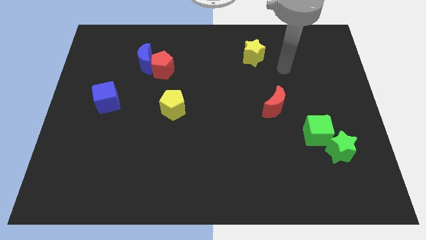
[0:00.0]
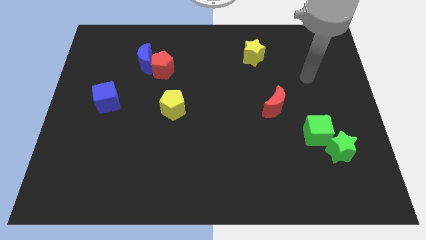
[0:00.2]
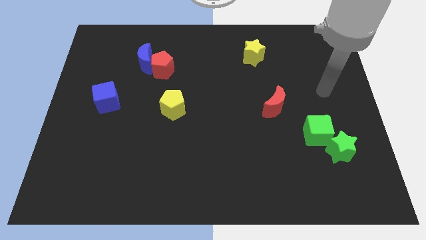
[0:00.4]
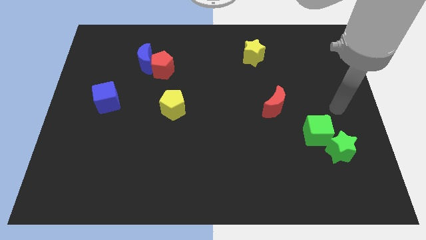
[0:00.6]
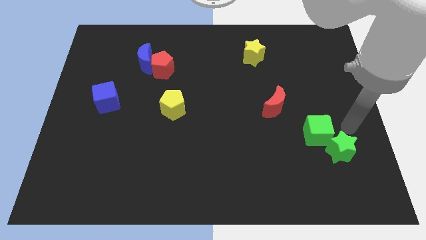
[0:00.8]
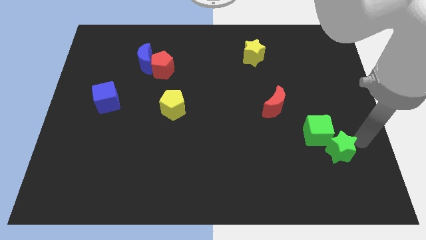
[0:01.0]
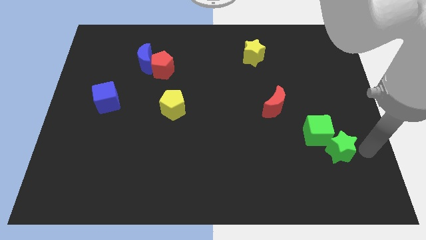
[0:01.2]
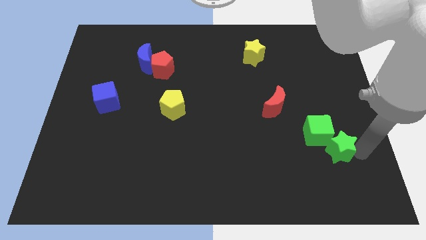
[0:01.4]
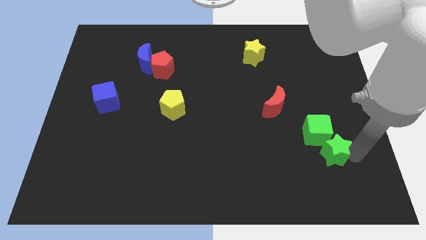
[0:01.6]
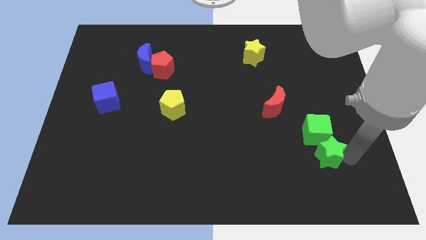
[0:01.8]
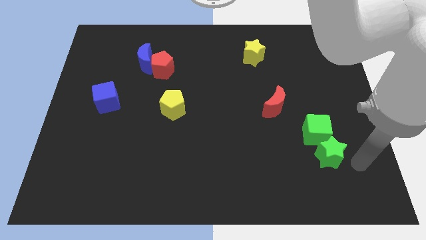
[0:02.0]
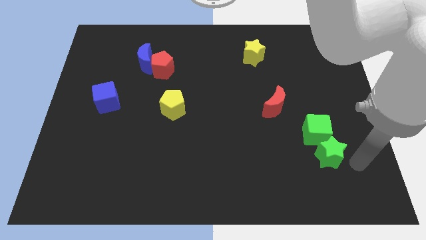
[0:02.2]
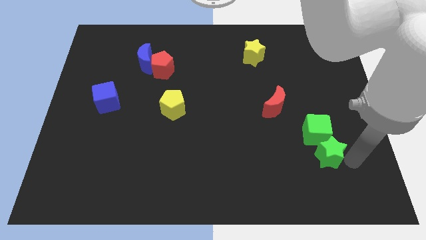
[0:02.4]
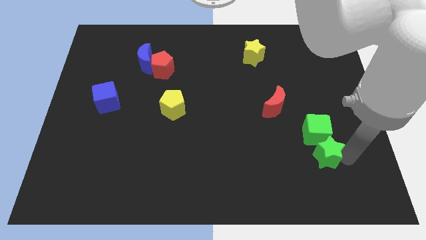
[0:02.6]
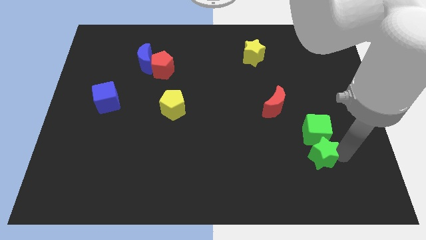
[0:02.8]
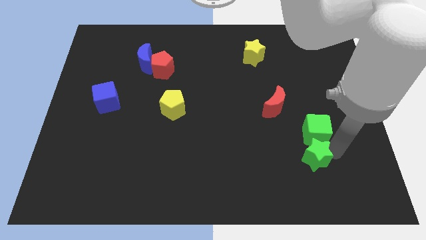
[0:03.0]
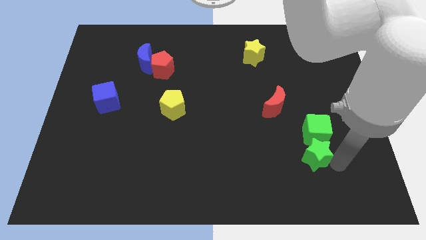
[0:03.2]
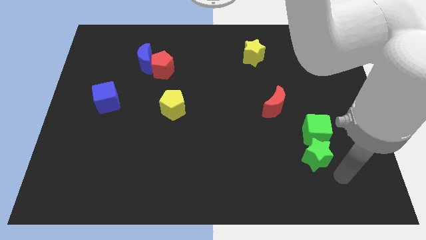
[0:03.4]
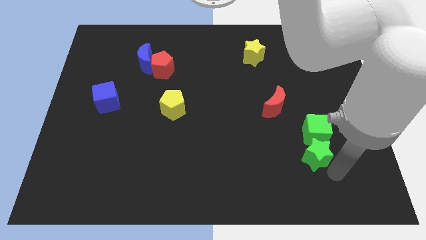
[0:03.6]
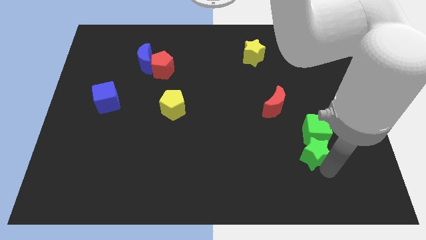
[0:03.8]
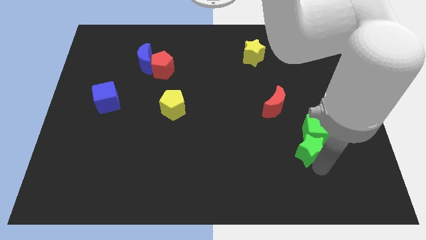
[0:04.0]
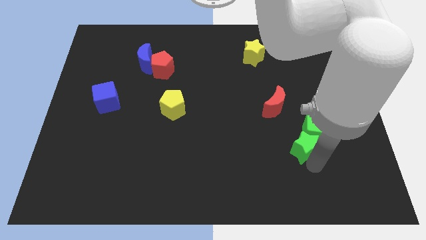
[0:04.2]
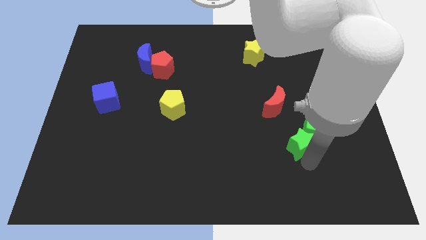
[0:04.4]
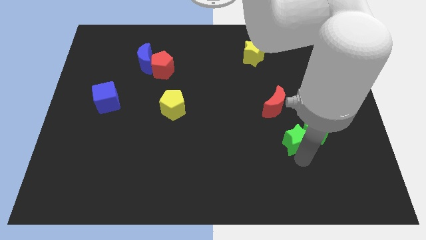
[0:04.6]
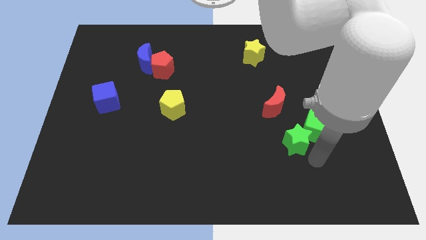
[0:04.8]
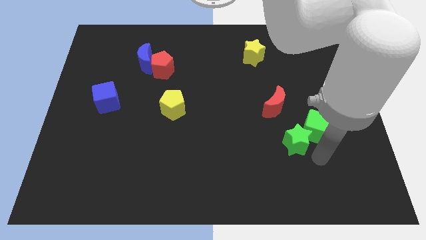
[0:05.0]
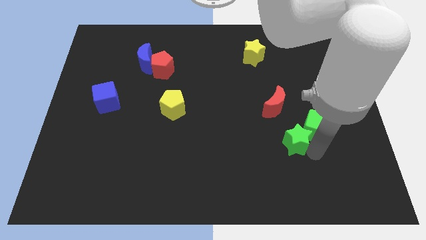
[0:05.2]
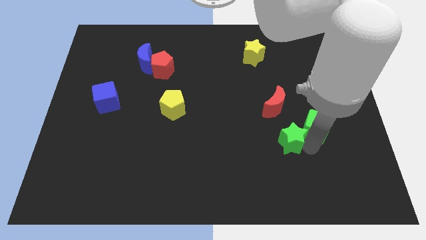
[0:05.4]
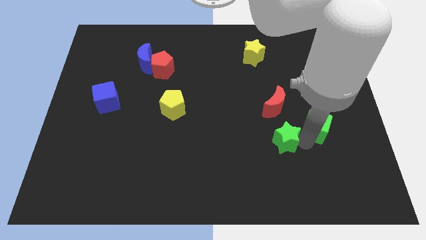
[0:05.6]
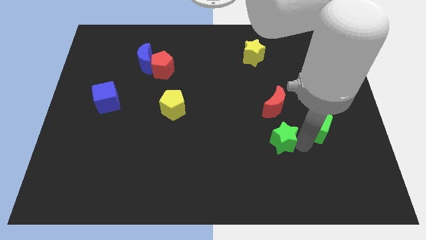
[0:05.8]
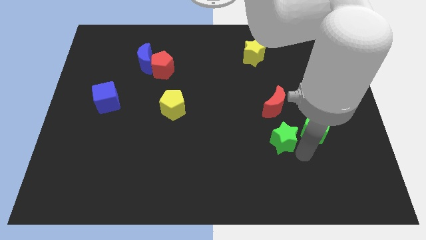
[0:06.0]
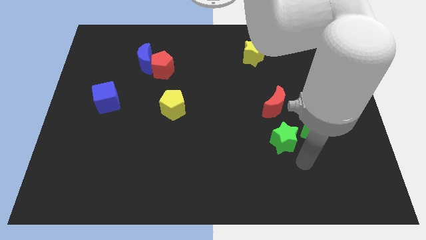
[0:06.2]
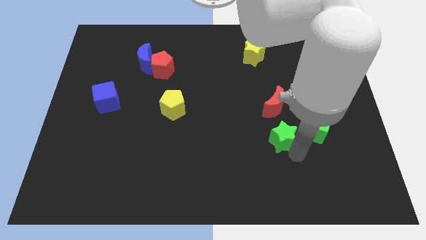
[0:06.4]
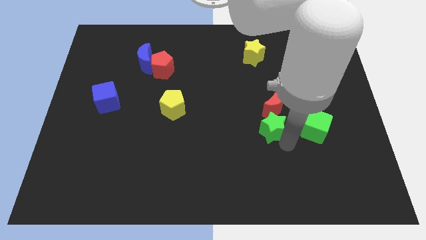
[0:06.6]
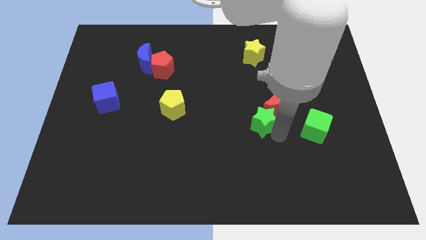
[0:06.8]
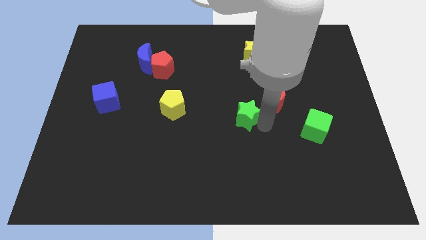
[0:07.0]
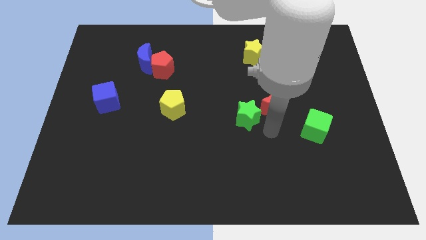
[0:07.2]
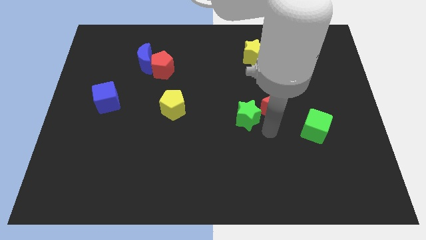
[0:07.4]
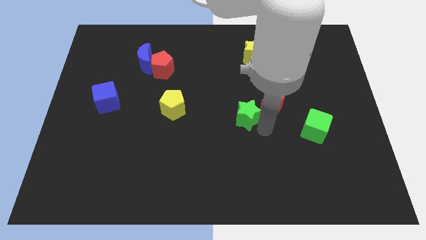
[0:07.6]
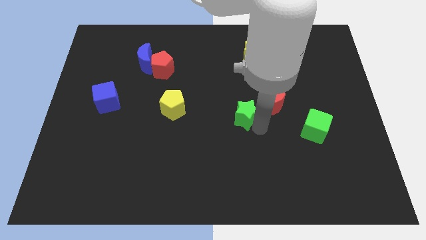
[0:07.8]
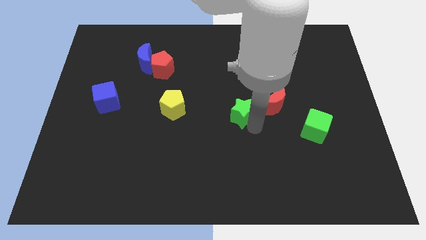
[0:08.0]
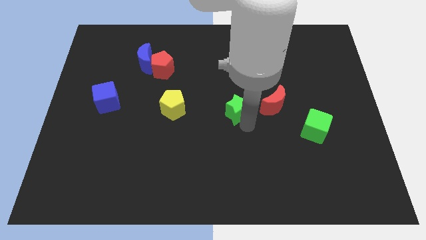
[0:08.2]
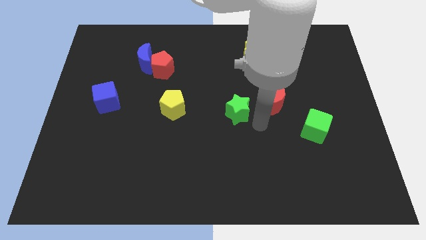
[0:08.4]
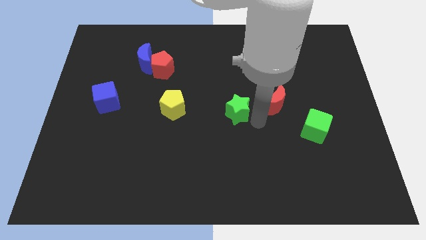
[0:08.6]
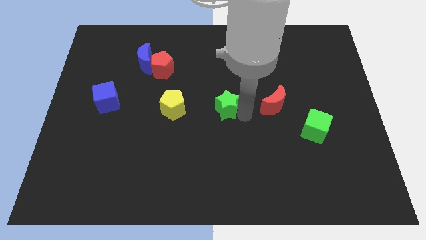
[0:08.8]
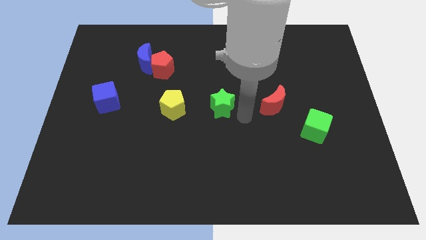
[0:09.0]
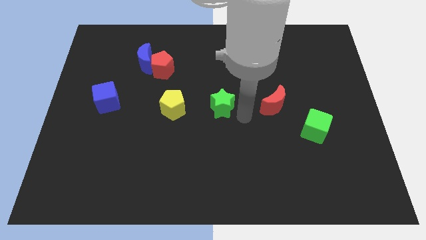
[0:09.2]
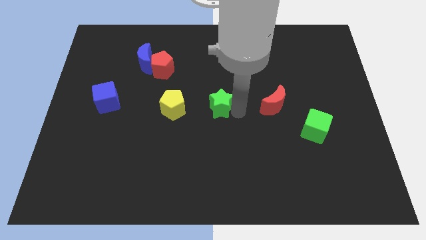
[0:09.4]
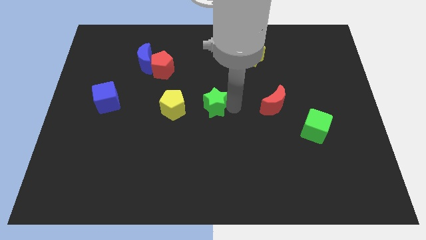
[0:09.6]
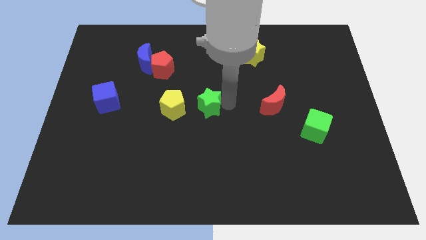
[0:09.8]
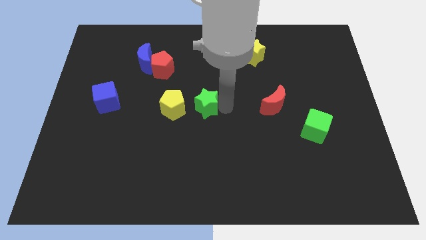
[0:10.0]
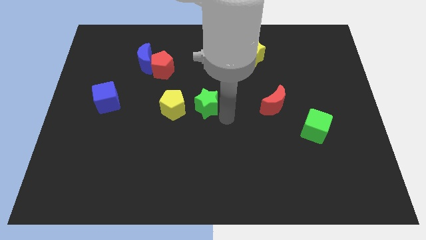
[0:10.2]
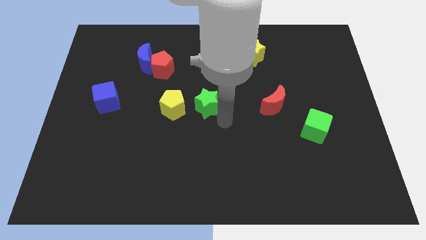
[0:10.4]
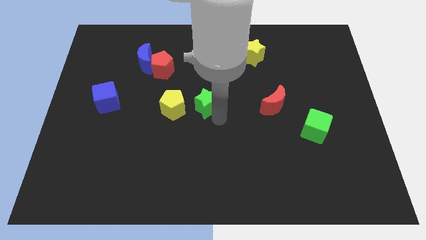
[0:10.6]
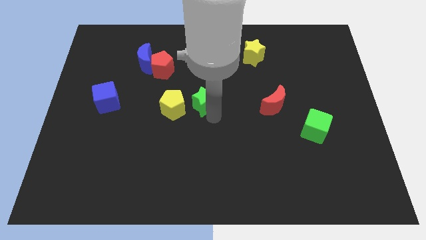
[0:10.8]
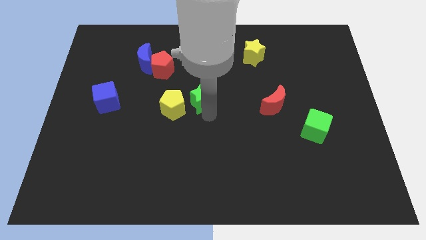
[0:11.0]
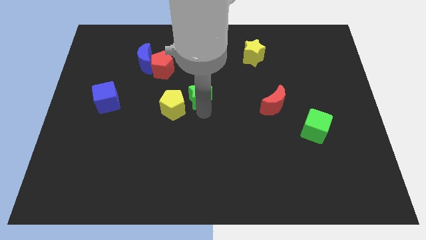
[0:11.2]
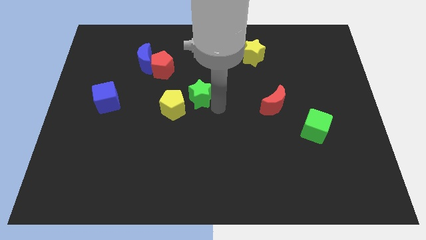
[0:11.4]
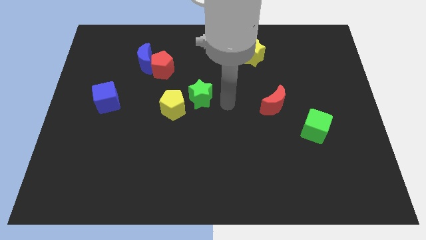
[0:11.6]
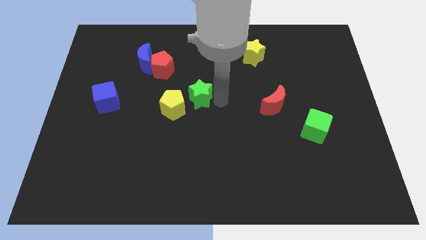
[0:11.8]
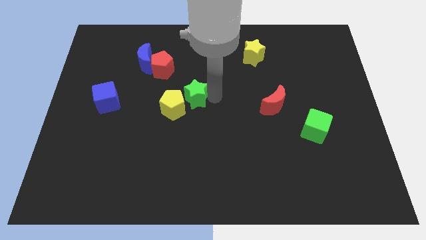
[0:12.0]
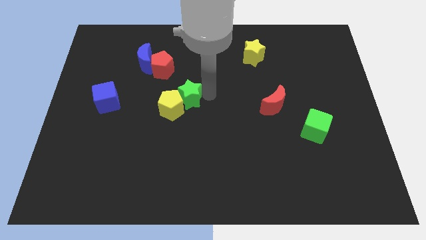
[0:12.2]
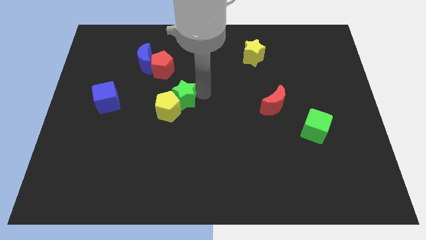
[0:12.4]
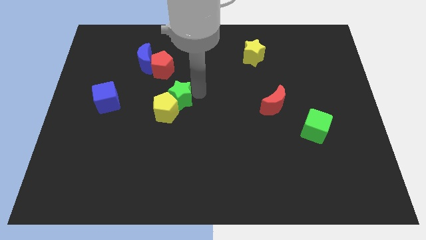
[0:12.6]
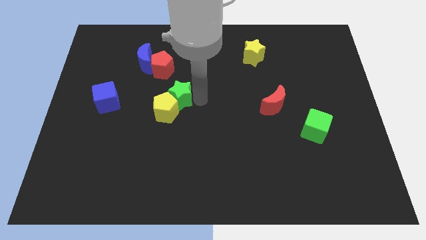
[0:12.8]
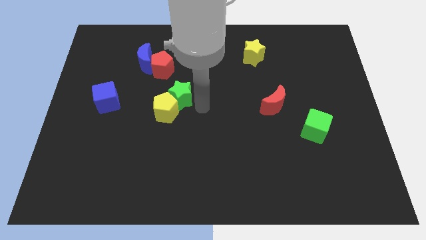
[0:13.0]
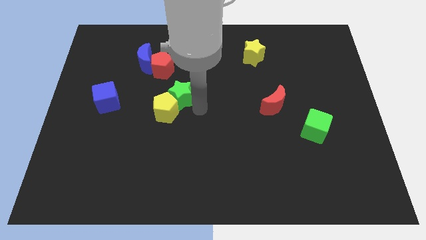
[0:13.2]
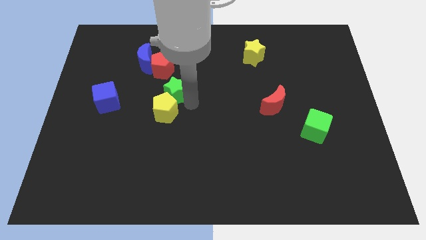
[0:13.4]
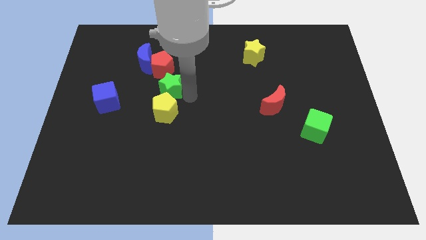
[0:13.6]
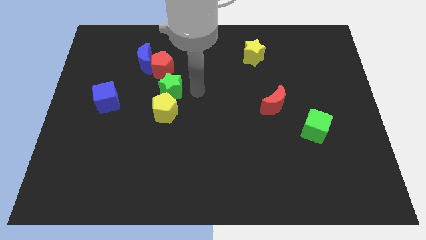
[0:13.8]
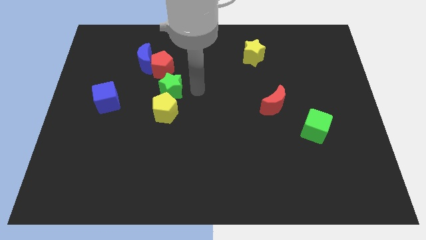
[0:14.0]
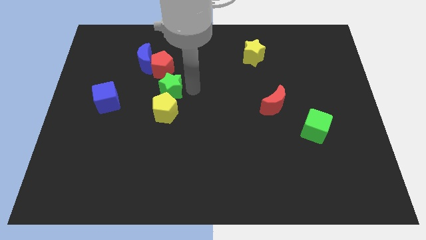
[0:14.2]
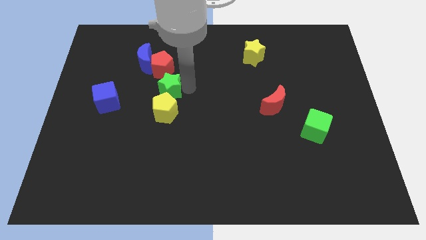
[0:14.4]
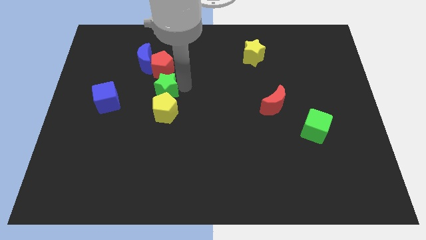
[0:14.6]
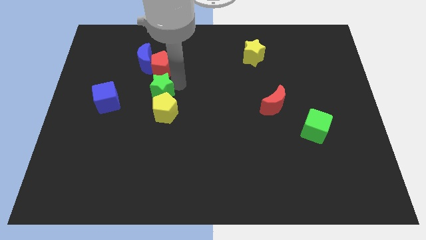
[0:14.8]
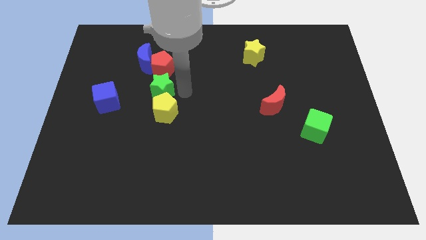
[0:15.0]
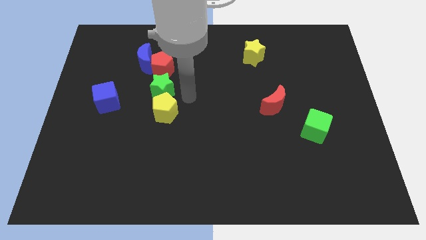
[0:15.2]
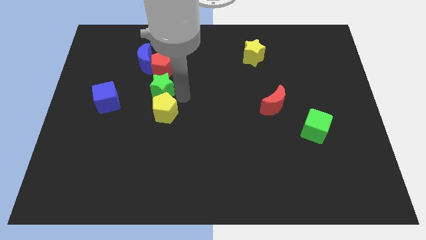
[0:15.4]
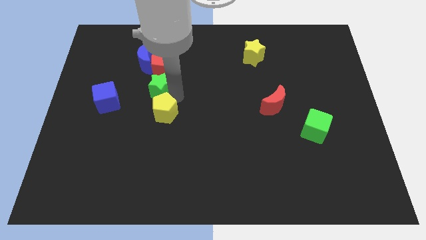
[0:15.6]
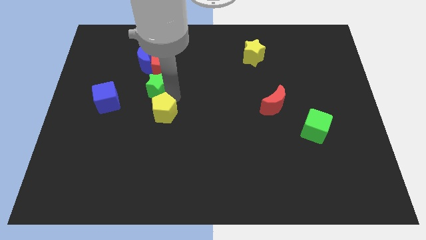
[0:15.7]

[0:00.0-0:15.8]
slide the green star diagonally down and to the left of the red pentagon
